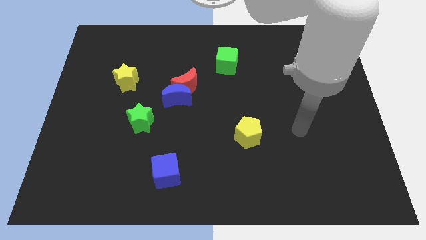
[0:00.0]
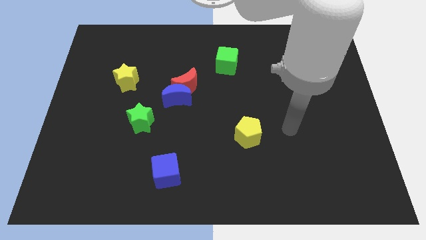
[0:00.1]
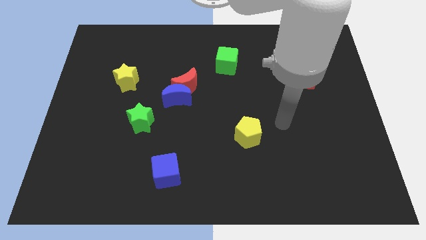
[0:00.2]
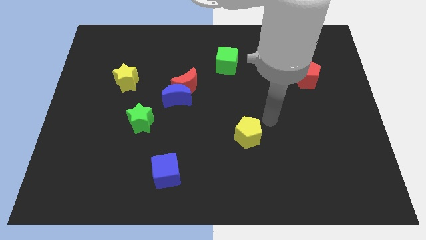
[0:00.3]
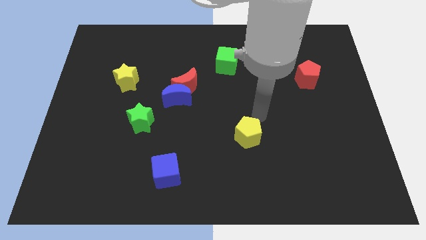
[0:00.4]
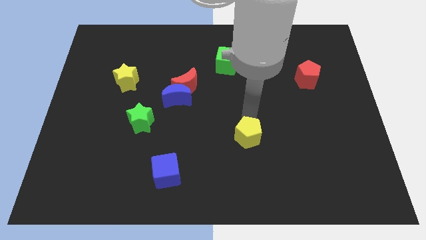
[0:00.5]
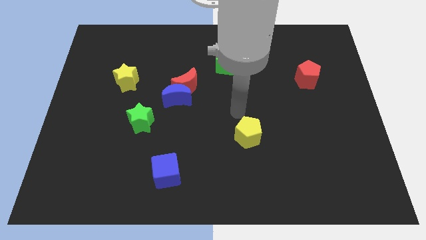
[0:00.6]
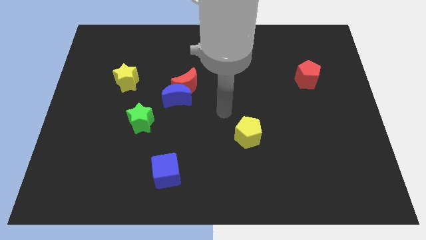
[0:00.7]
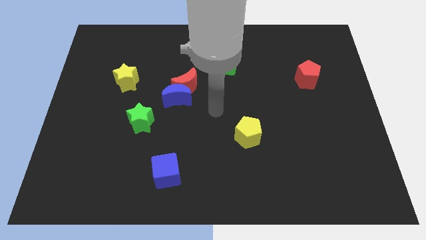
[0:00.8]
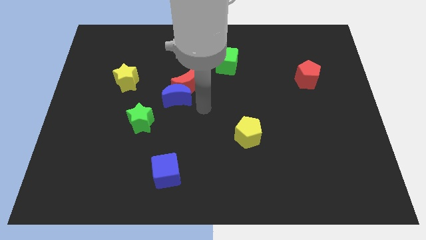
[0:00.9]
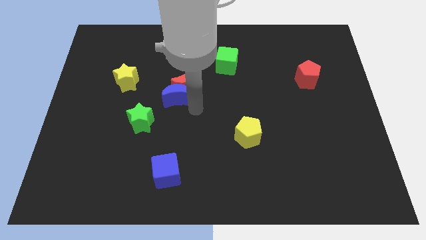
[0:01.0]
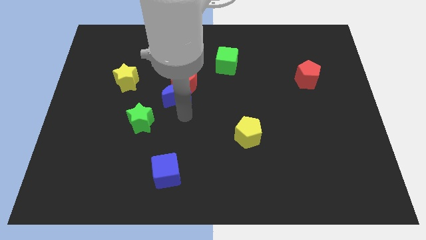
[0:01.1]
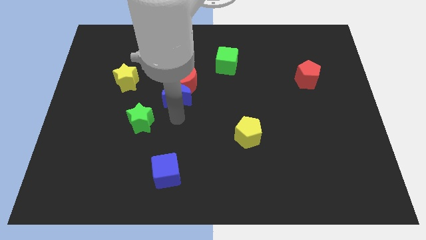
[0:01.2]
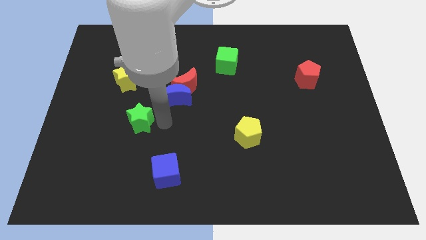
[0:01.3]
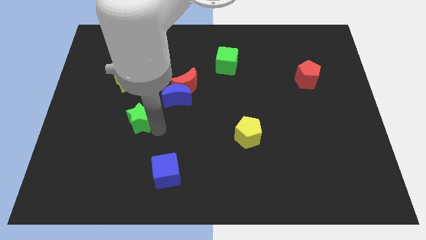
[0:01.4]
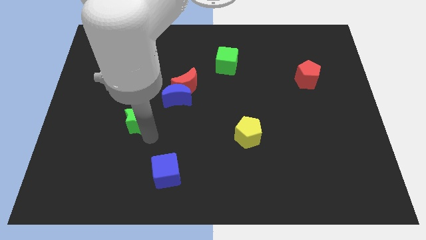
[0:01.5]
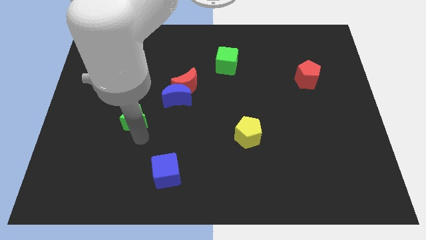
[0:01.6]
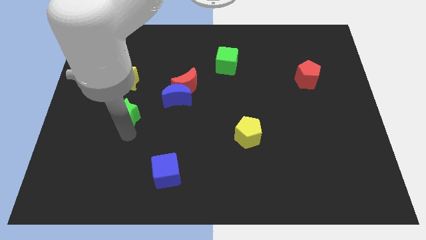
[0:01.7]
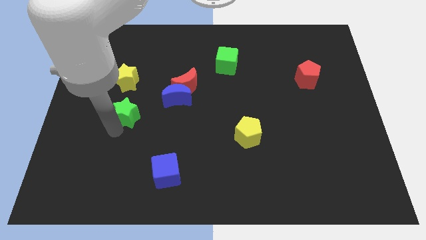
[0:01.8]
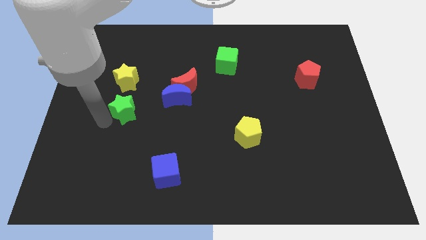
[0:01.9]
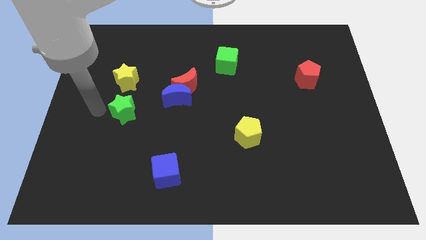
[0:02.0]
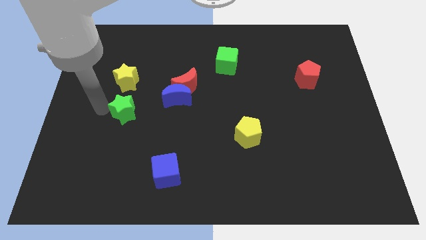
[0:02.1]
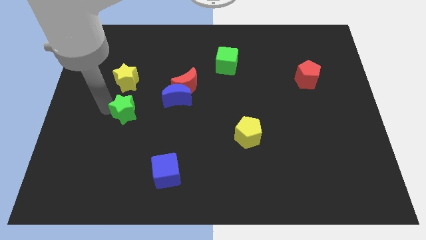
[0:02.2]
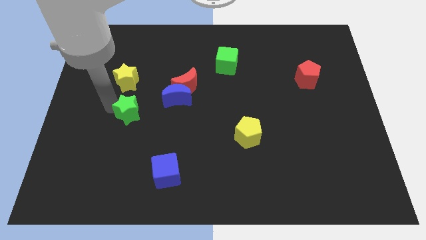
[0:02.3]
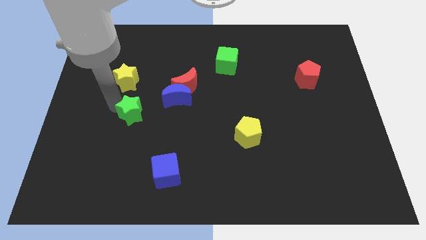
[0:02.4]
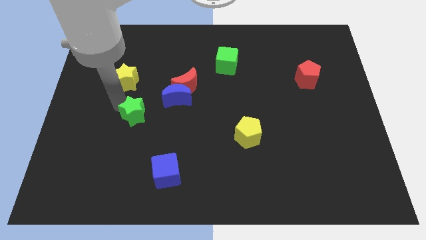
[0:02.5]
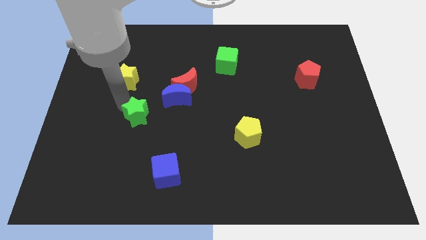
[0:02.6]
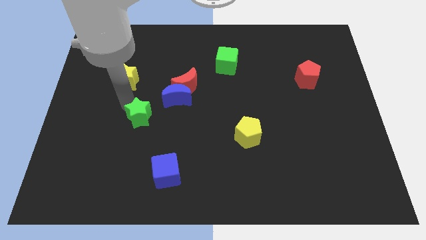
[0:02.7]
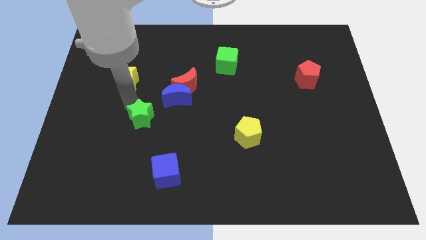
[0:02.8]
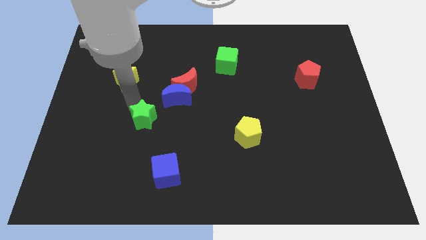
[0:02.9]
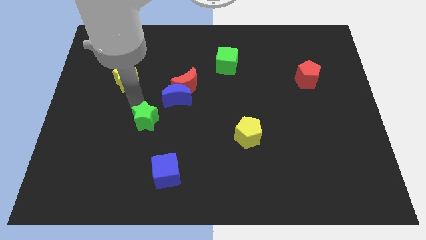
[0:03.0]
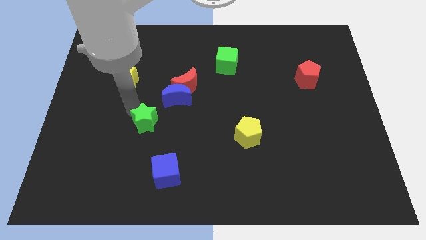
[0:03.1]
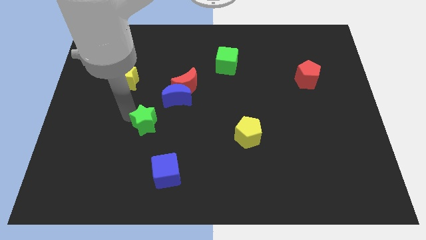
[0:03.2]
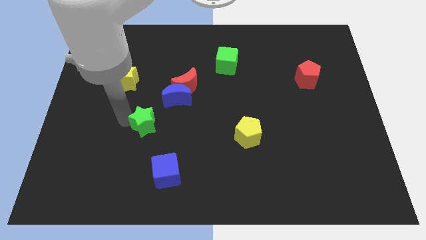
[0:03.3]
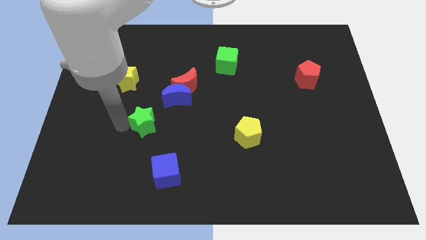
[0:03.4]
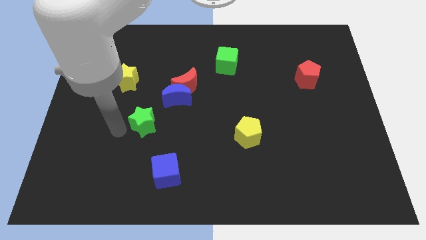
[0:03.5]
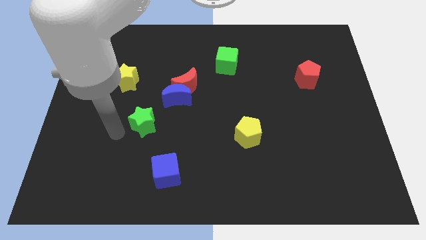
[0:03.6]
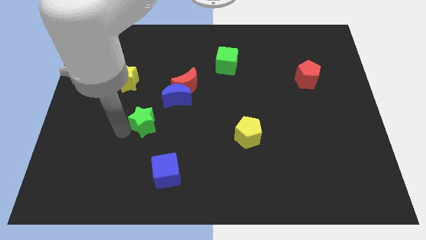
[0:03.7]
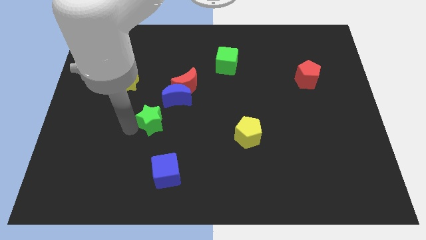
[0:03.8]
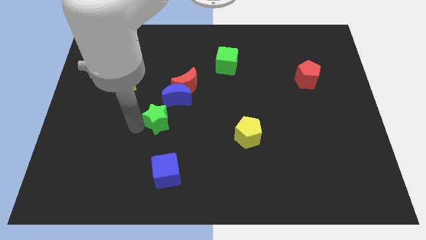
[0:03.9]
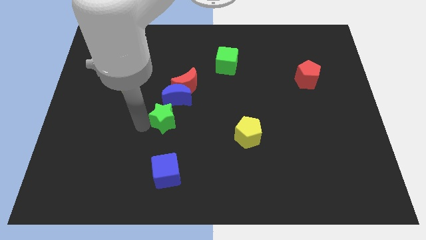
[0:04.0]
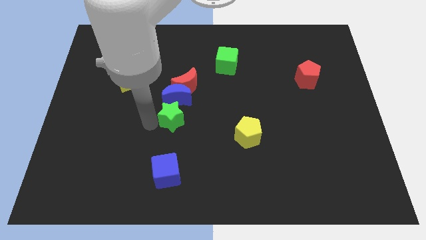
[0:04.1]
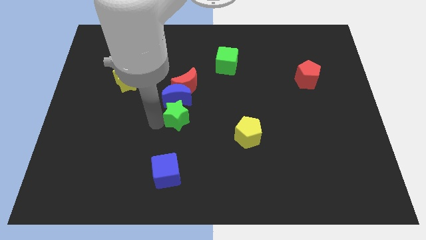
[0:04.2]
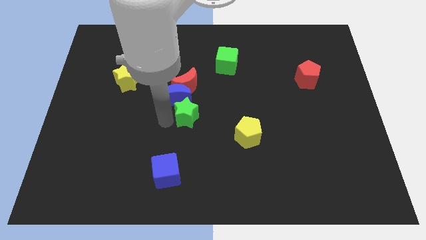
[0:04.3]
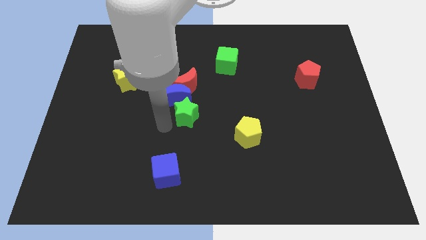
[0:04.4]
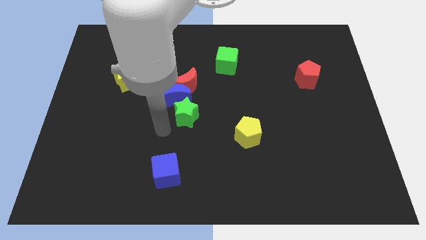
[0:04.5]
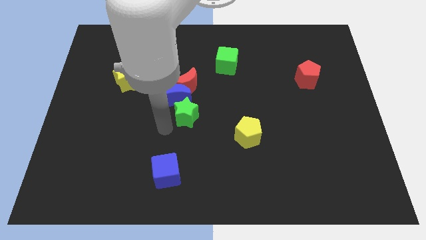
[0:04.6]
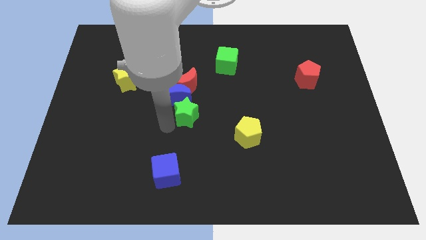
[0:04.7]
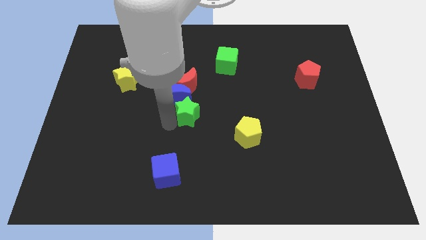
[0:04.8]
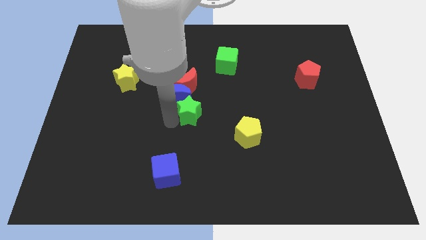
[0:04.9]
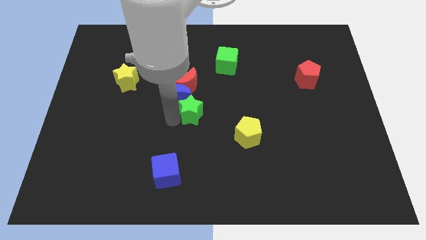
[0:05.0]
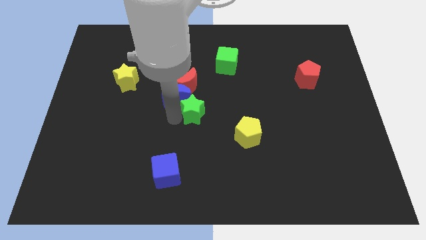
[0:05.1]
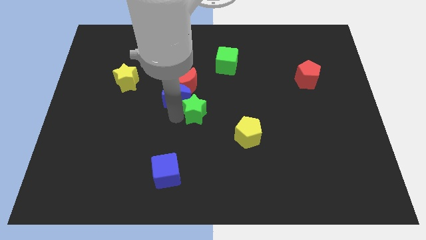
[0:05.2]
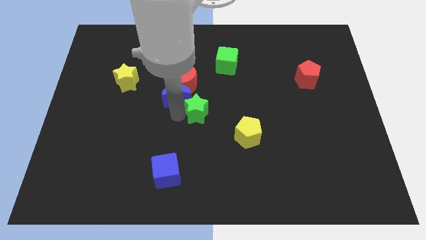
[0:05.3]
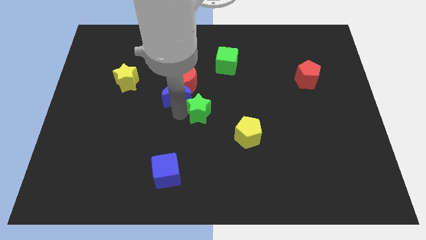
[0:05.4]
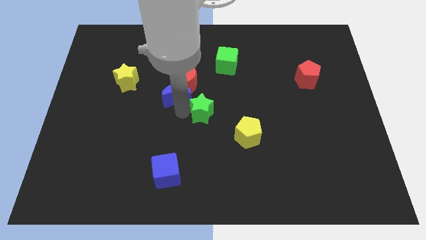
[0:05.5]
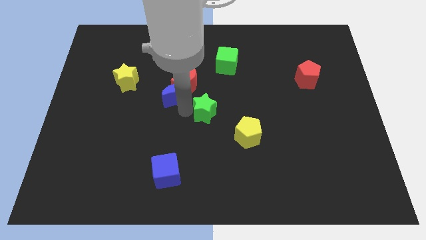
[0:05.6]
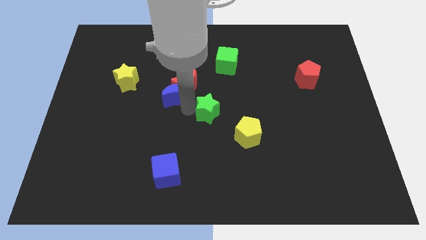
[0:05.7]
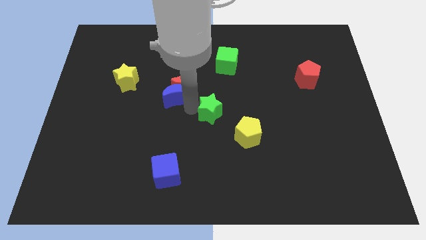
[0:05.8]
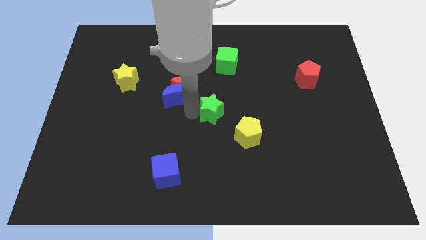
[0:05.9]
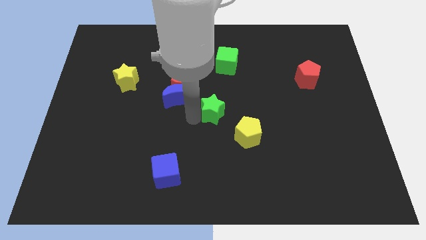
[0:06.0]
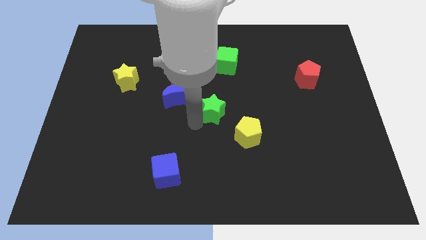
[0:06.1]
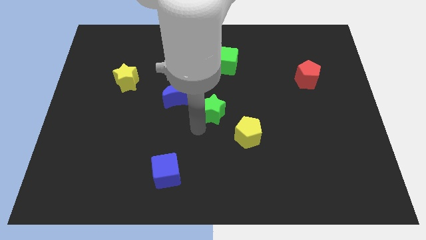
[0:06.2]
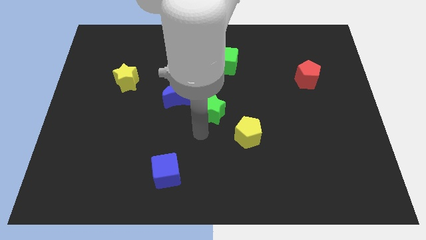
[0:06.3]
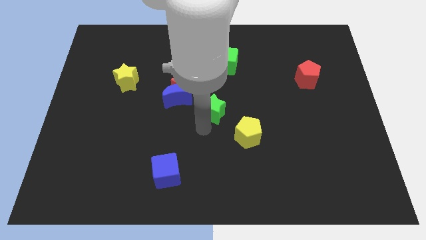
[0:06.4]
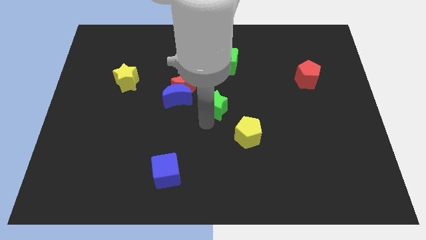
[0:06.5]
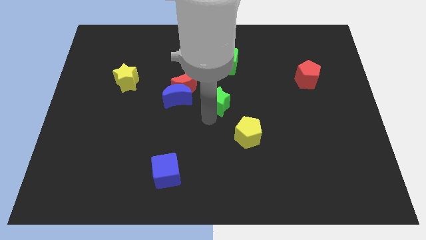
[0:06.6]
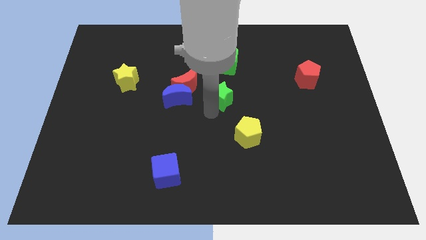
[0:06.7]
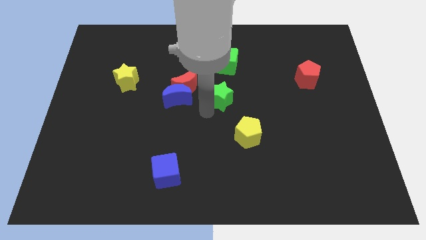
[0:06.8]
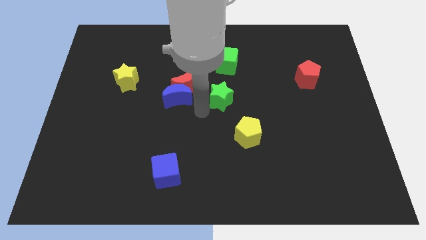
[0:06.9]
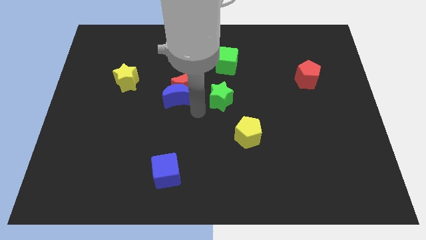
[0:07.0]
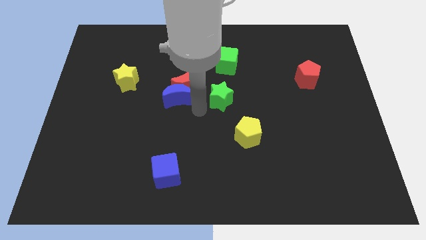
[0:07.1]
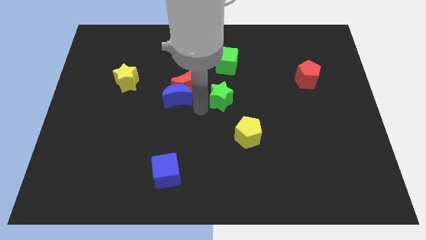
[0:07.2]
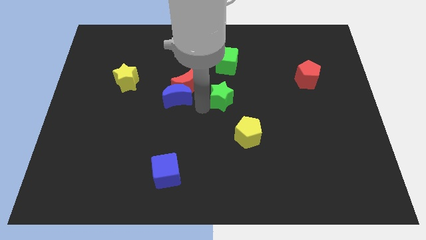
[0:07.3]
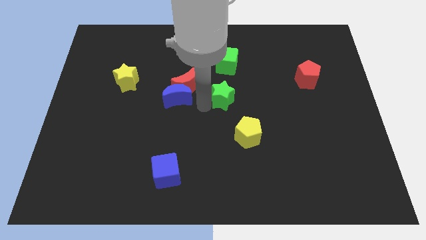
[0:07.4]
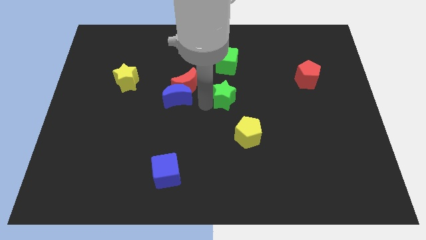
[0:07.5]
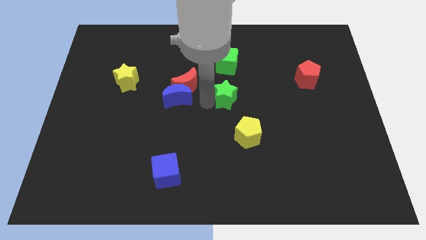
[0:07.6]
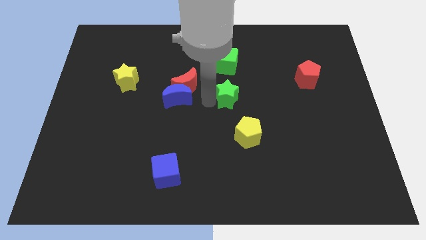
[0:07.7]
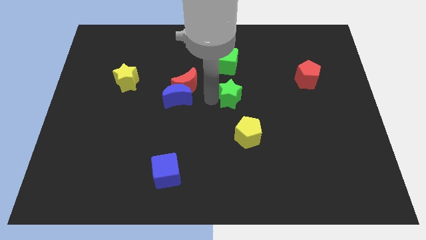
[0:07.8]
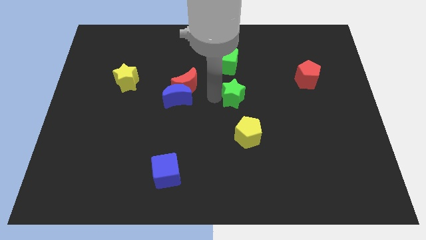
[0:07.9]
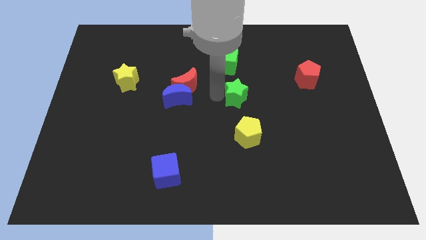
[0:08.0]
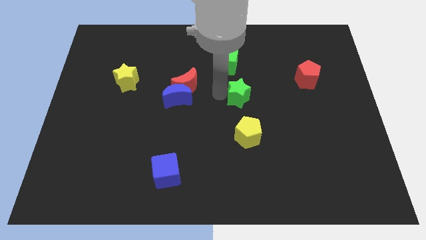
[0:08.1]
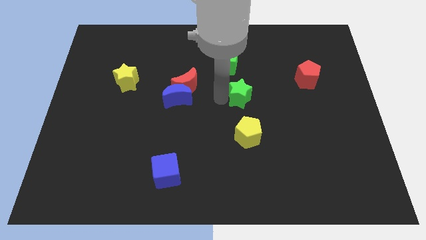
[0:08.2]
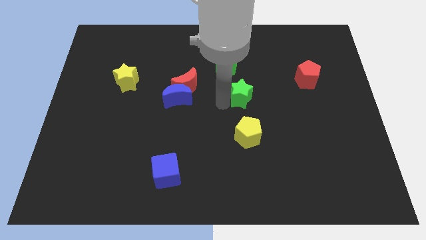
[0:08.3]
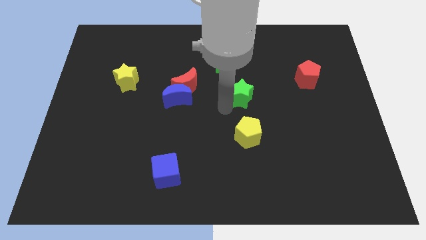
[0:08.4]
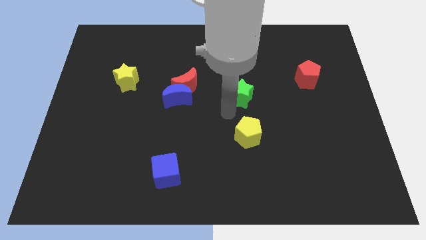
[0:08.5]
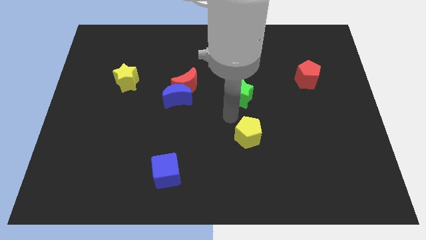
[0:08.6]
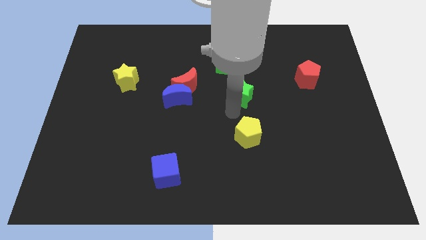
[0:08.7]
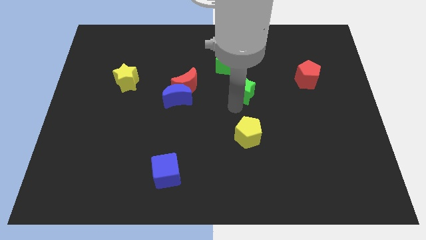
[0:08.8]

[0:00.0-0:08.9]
push the green star diagonally down and to the right of the green cube
